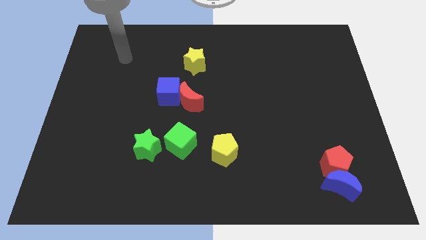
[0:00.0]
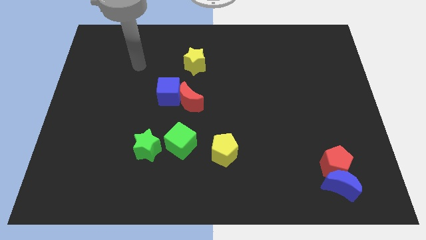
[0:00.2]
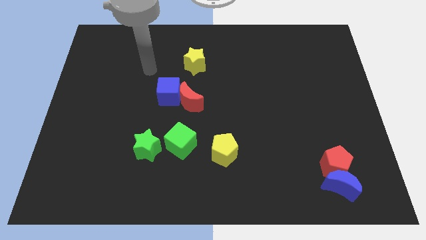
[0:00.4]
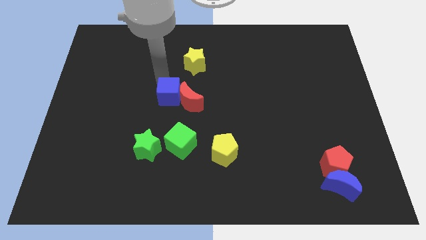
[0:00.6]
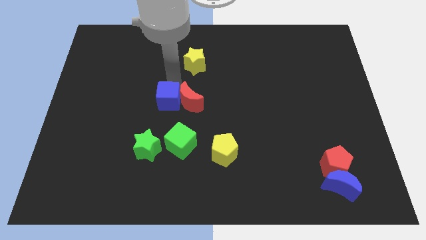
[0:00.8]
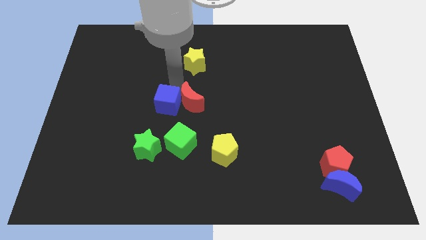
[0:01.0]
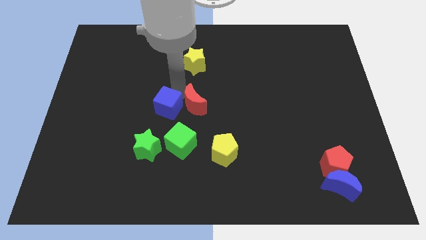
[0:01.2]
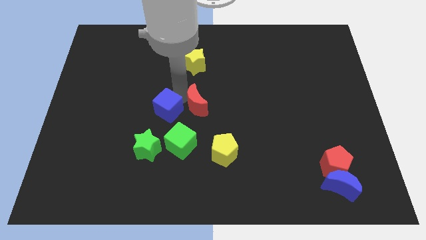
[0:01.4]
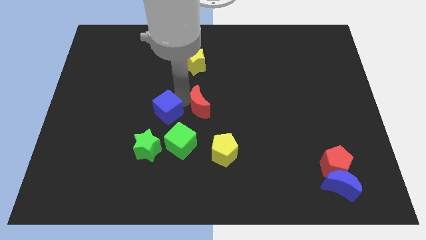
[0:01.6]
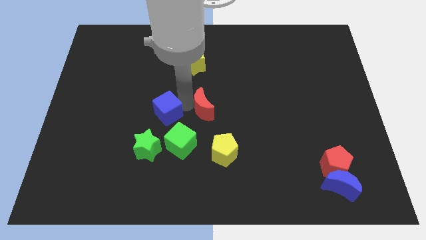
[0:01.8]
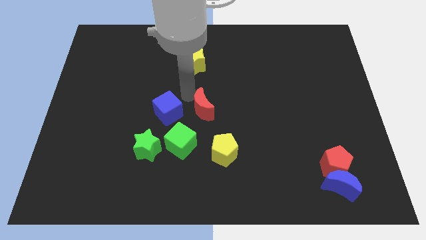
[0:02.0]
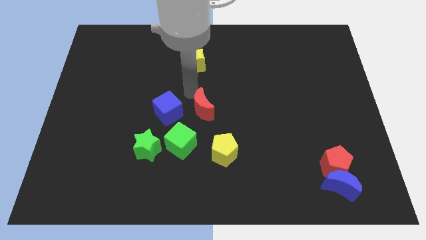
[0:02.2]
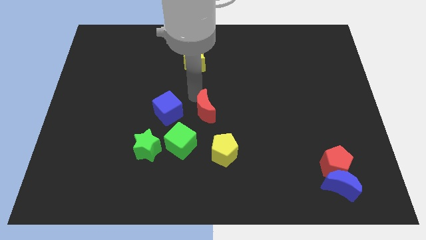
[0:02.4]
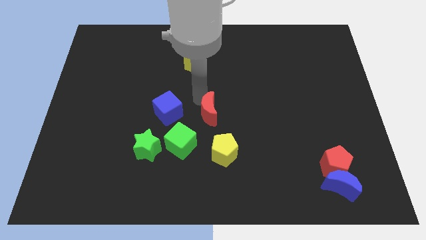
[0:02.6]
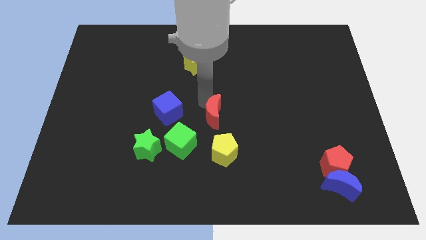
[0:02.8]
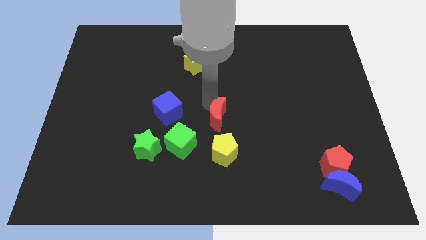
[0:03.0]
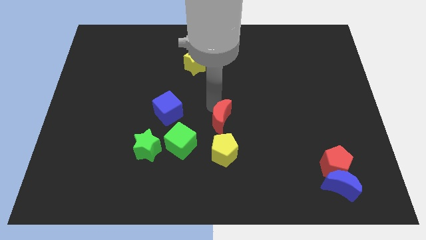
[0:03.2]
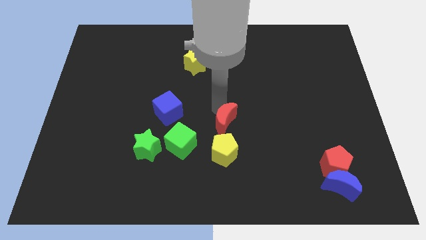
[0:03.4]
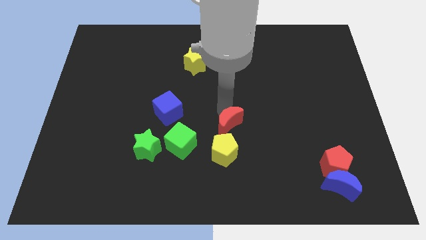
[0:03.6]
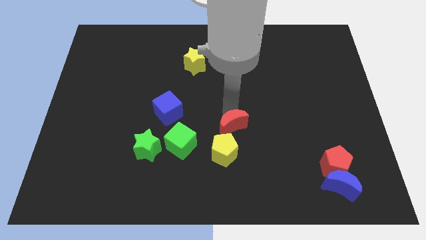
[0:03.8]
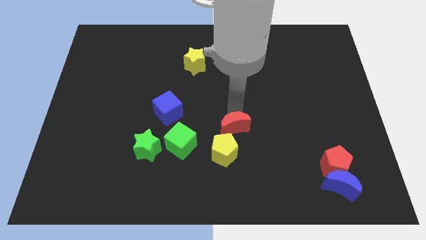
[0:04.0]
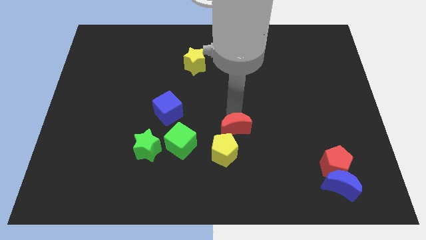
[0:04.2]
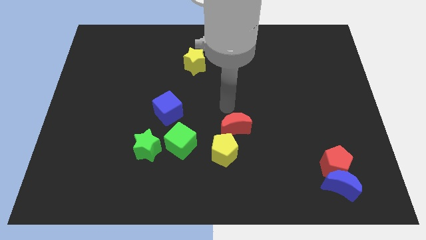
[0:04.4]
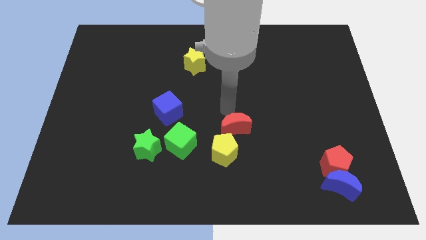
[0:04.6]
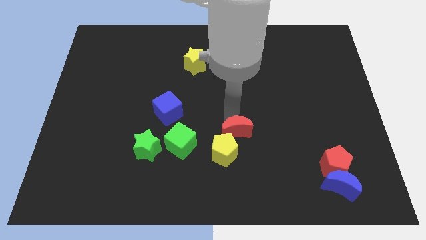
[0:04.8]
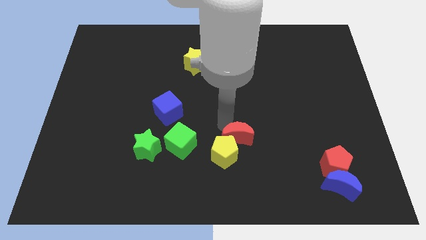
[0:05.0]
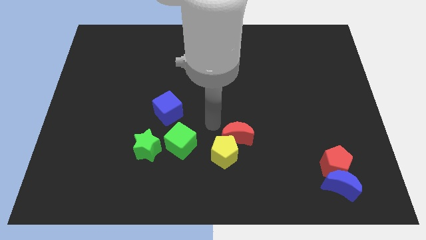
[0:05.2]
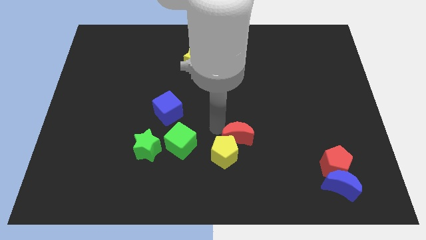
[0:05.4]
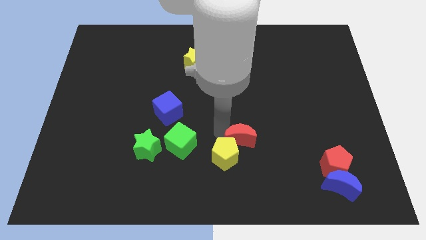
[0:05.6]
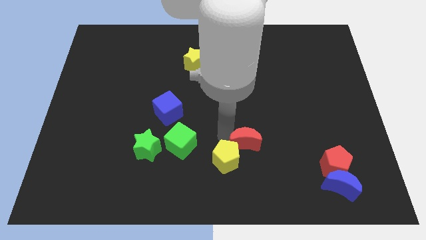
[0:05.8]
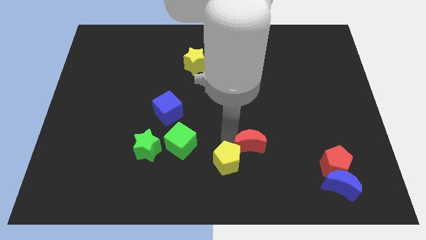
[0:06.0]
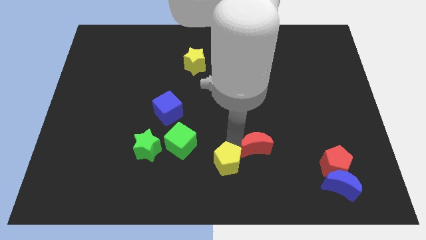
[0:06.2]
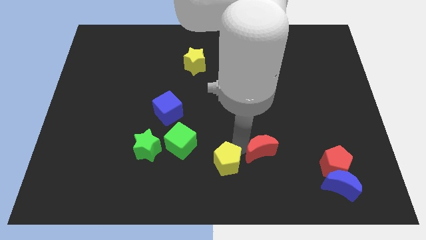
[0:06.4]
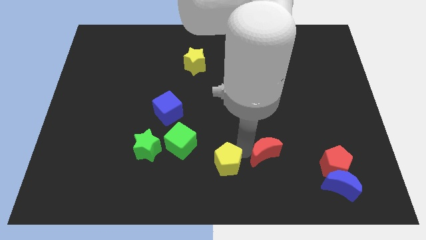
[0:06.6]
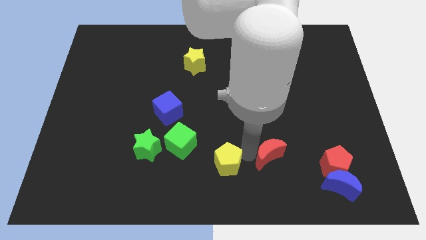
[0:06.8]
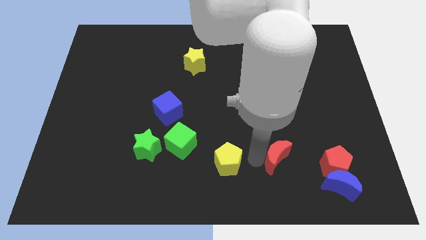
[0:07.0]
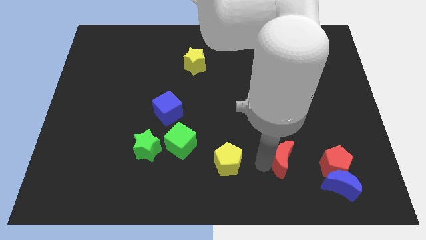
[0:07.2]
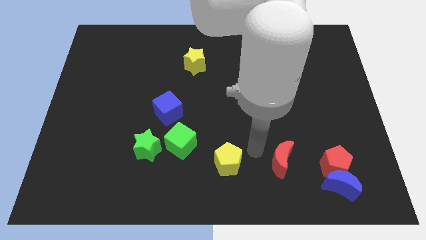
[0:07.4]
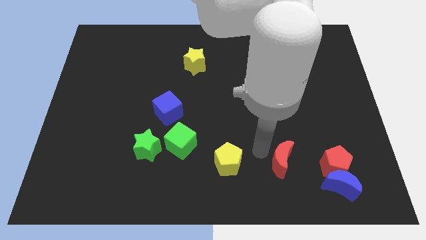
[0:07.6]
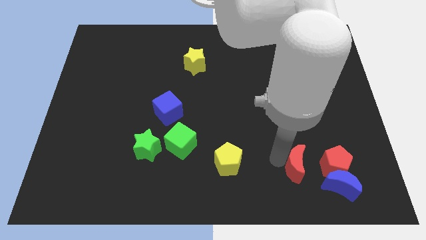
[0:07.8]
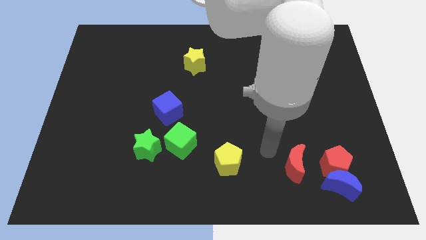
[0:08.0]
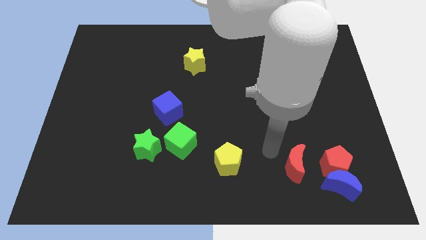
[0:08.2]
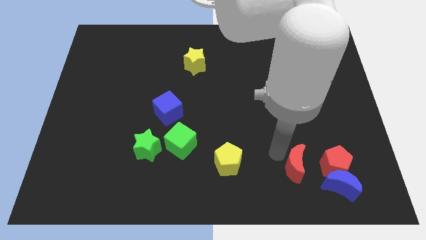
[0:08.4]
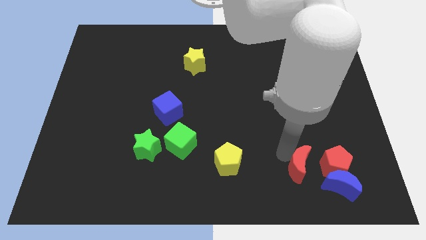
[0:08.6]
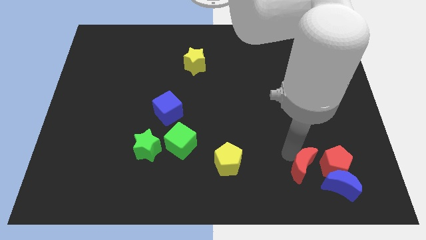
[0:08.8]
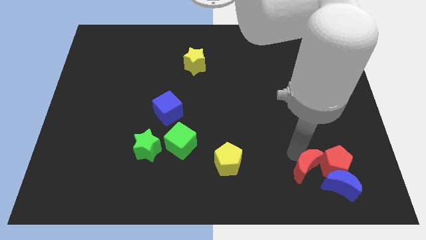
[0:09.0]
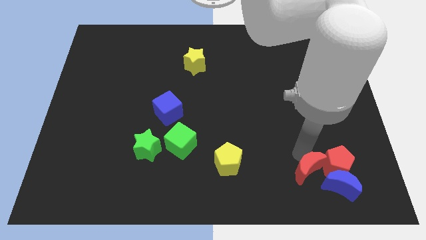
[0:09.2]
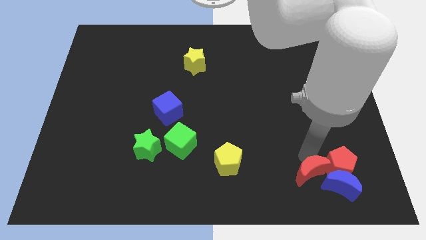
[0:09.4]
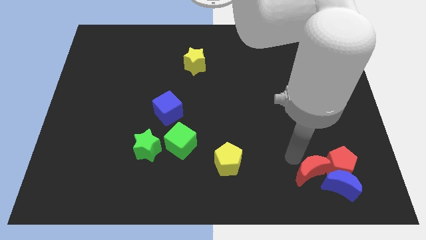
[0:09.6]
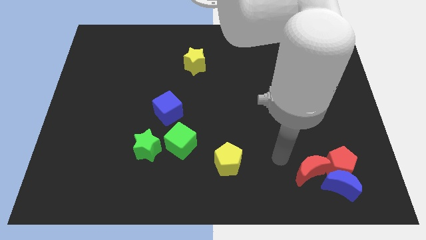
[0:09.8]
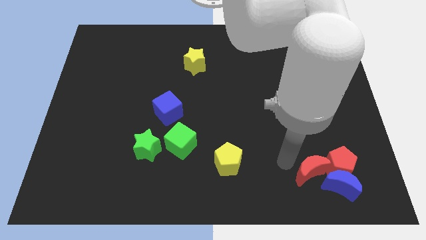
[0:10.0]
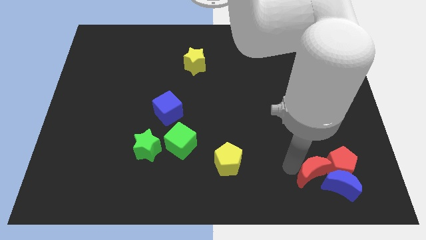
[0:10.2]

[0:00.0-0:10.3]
push the red moon next to the blue moon

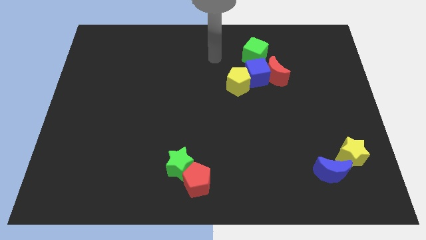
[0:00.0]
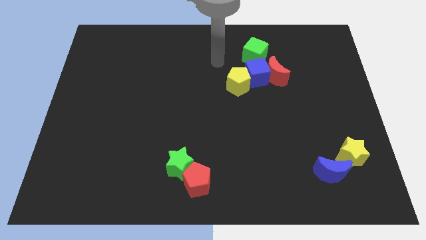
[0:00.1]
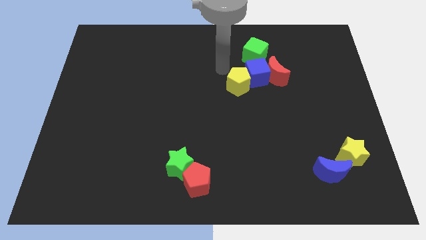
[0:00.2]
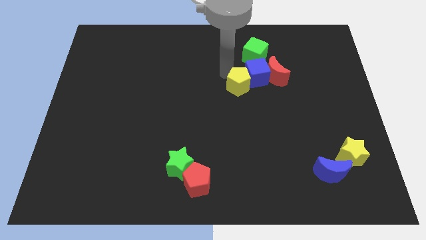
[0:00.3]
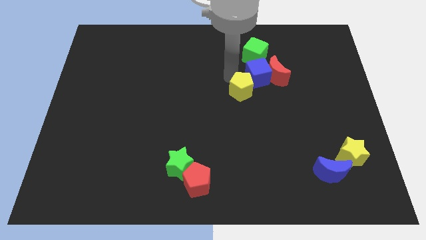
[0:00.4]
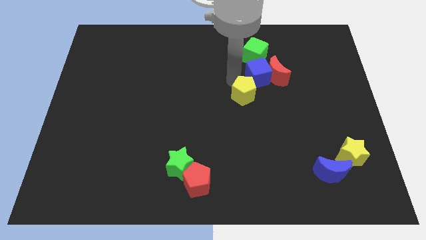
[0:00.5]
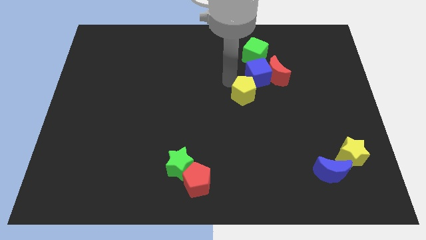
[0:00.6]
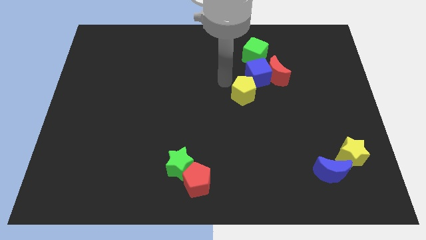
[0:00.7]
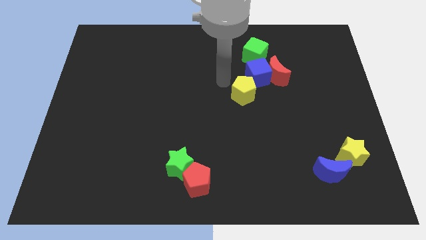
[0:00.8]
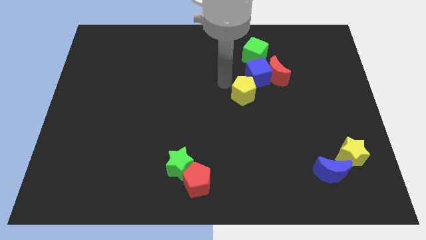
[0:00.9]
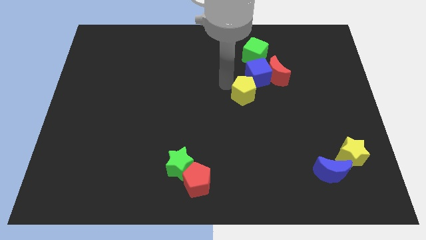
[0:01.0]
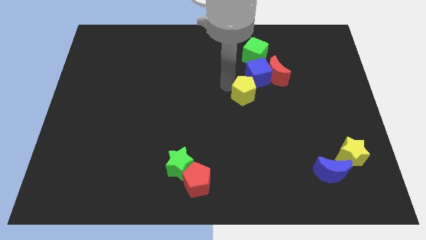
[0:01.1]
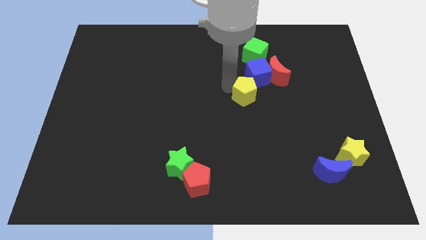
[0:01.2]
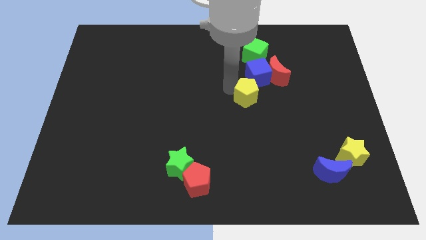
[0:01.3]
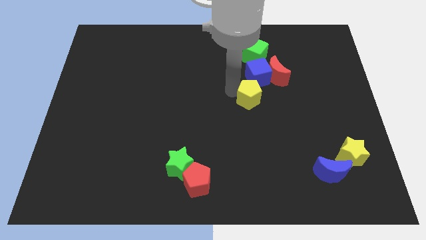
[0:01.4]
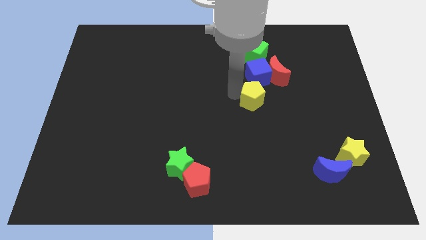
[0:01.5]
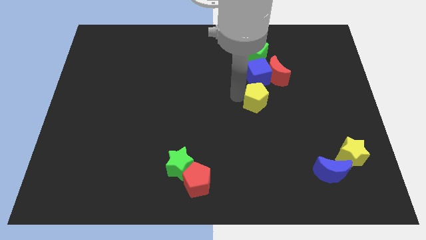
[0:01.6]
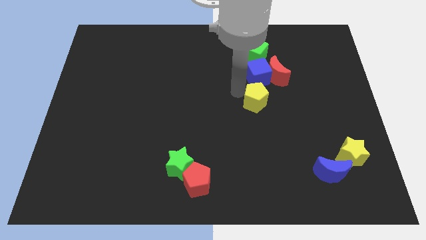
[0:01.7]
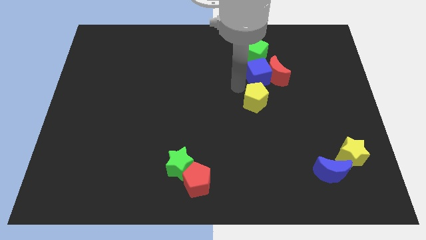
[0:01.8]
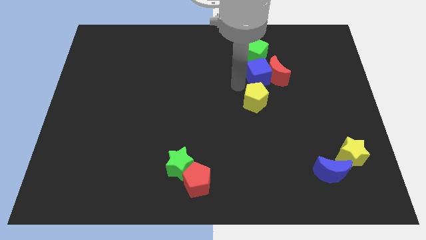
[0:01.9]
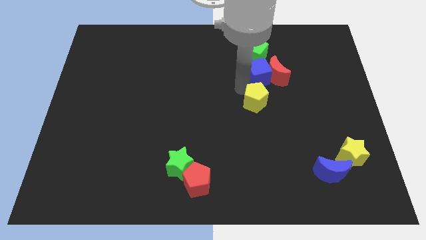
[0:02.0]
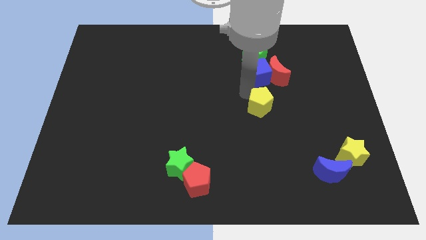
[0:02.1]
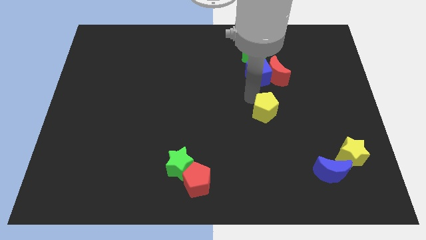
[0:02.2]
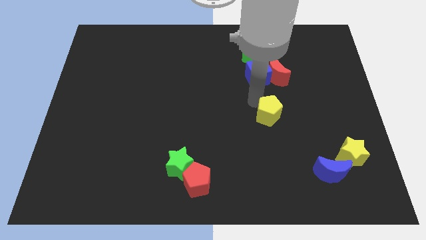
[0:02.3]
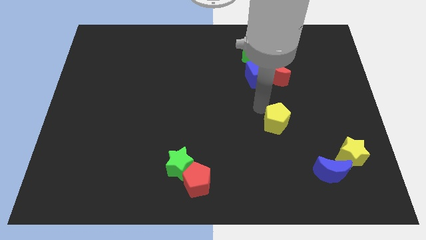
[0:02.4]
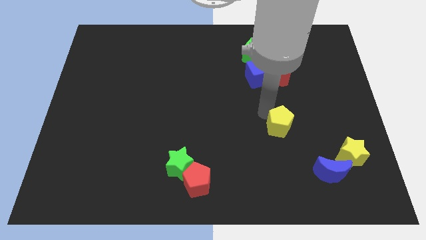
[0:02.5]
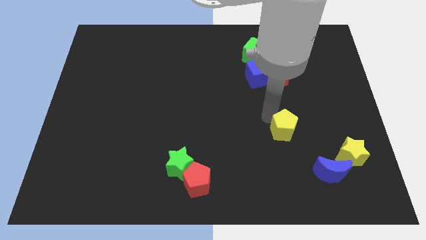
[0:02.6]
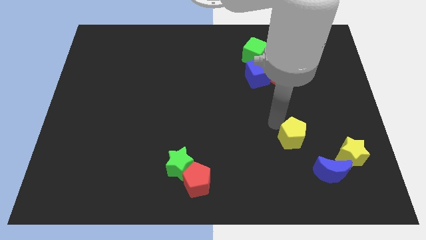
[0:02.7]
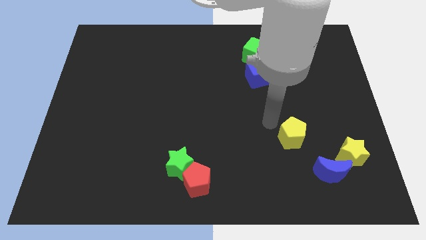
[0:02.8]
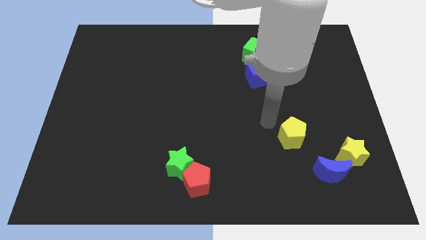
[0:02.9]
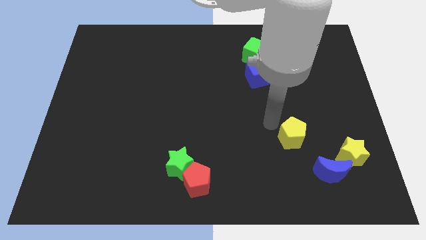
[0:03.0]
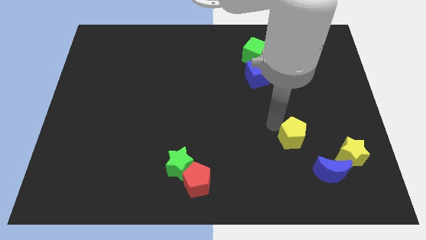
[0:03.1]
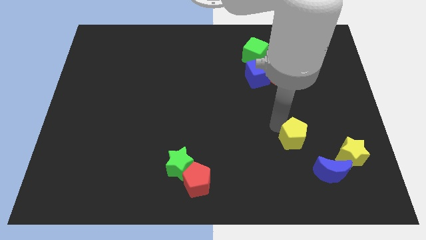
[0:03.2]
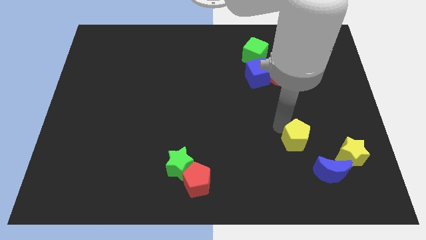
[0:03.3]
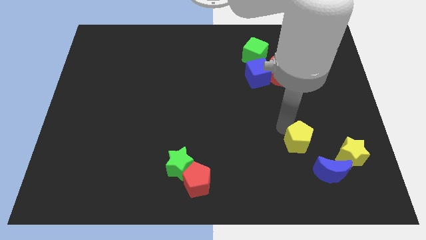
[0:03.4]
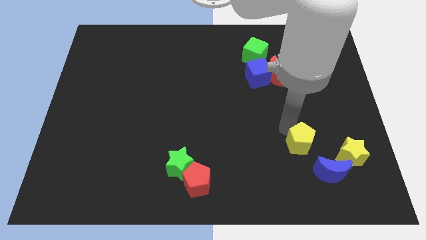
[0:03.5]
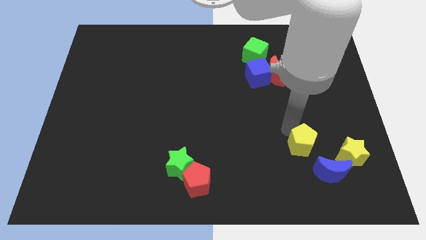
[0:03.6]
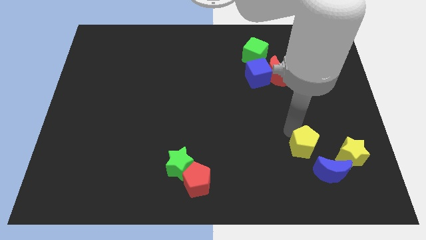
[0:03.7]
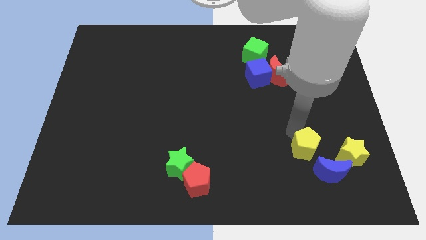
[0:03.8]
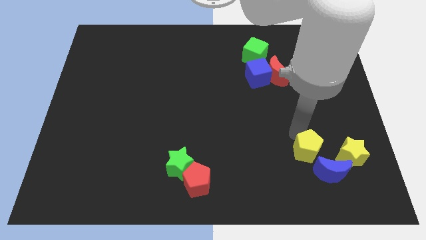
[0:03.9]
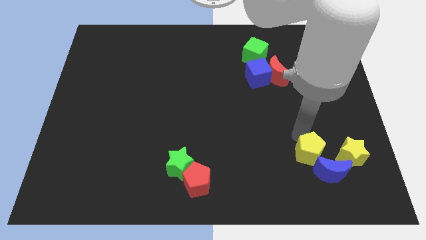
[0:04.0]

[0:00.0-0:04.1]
slide the yellow pentagon next to the blue moon
